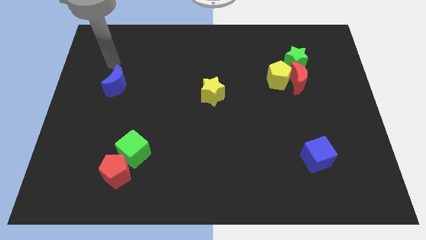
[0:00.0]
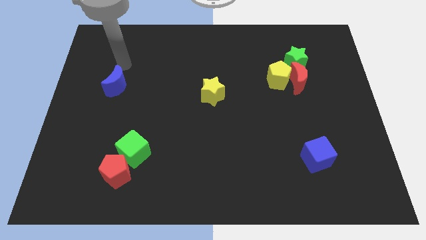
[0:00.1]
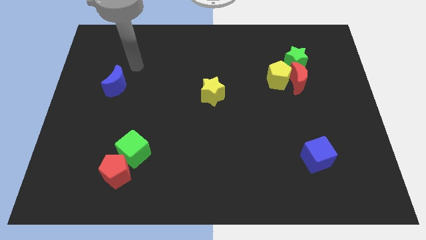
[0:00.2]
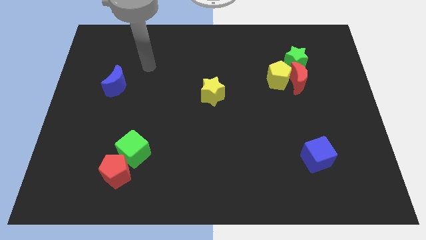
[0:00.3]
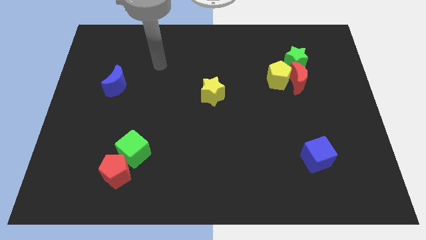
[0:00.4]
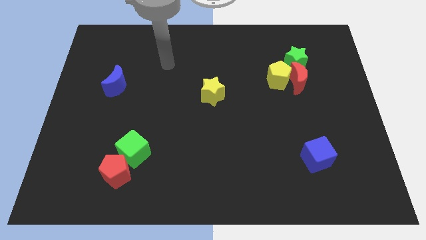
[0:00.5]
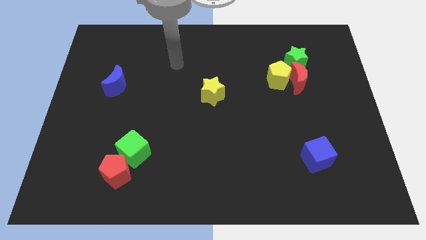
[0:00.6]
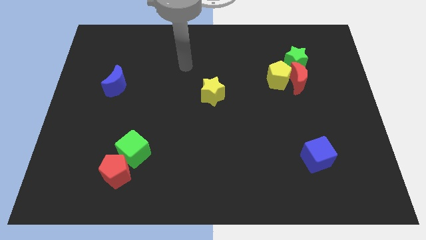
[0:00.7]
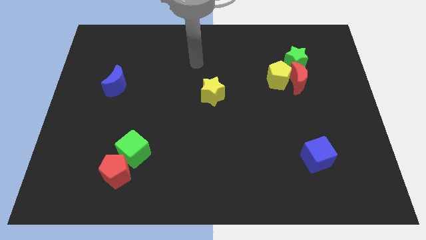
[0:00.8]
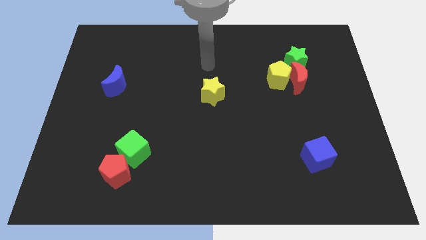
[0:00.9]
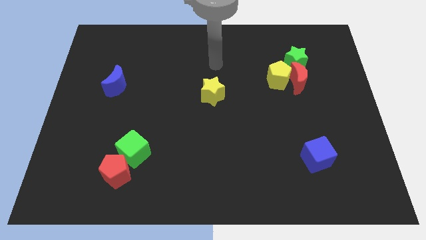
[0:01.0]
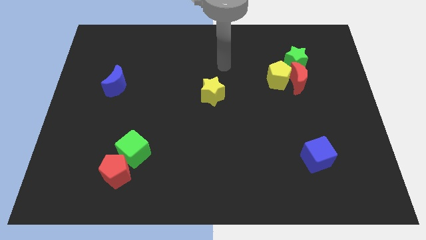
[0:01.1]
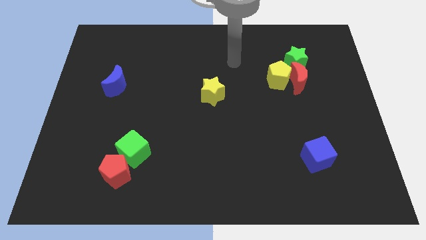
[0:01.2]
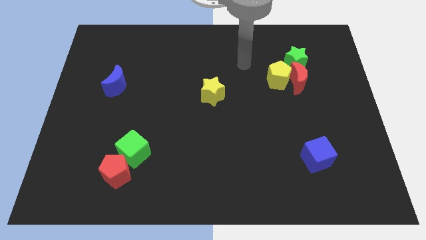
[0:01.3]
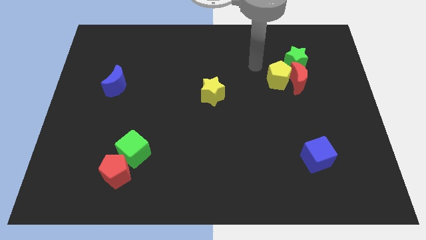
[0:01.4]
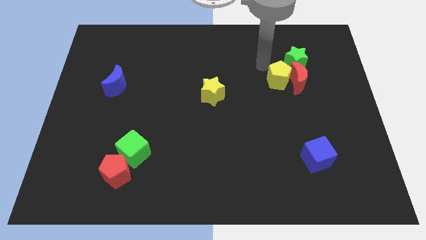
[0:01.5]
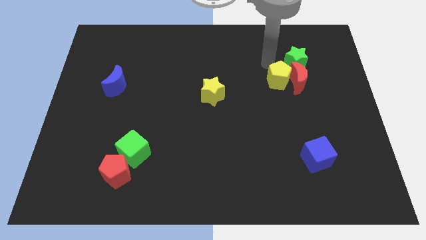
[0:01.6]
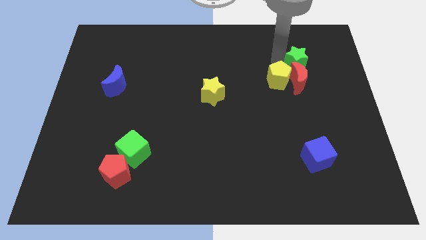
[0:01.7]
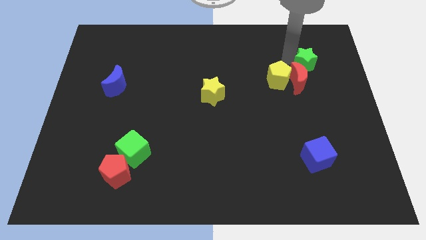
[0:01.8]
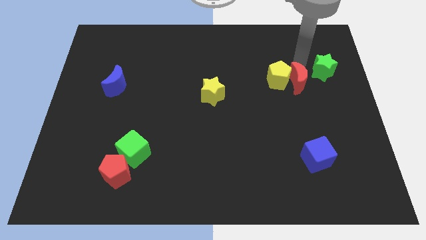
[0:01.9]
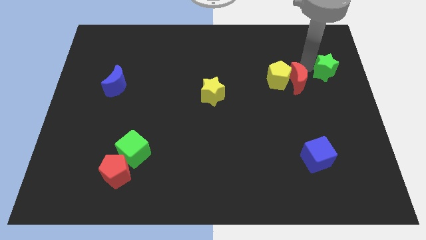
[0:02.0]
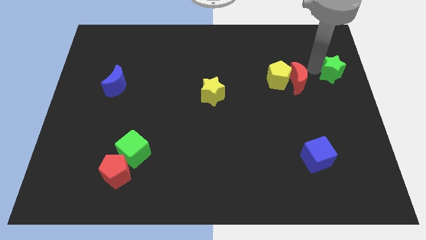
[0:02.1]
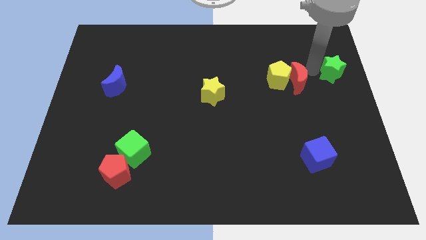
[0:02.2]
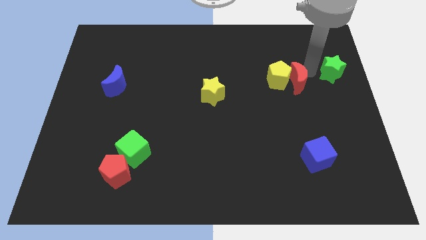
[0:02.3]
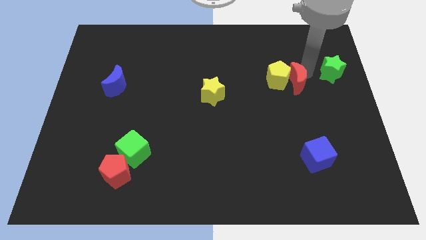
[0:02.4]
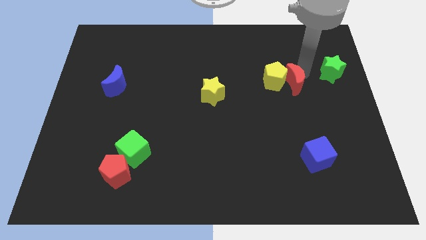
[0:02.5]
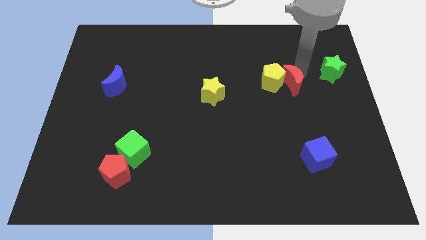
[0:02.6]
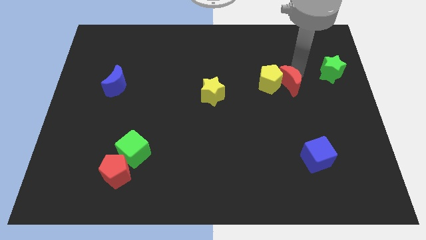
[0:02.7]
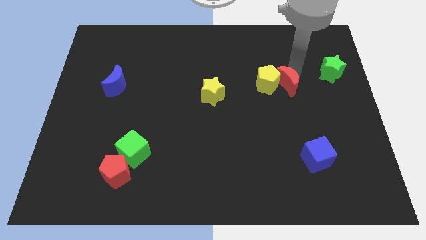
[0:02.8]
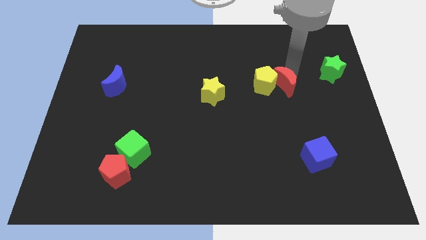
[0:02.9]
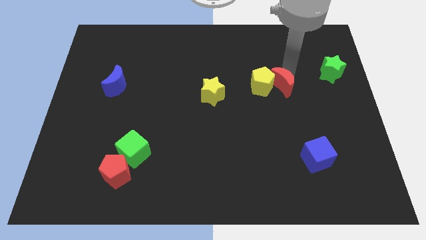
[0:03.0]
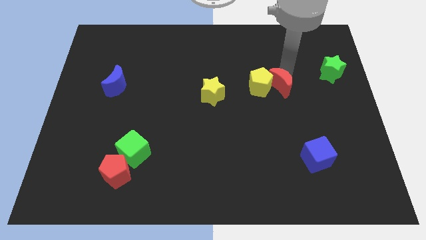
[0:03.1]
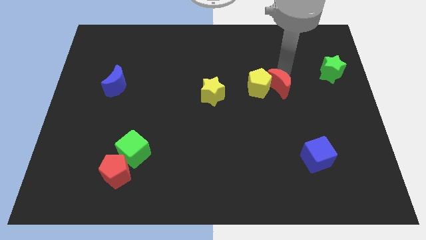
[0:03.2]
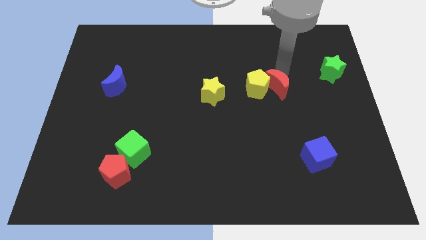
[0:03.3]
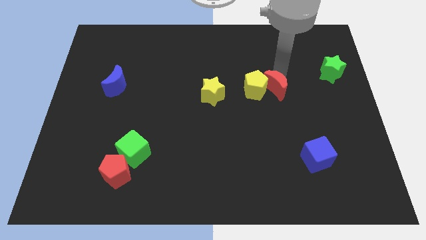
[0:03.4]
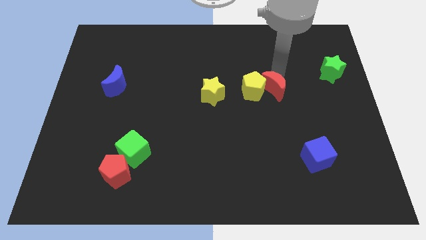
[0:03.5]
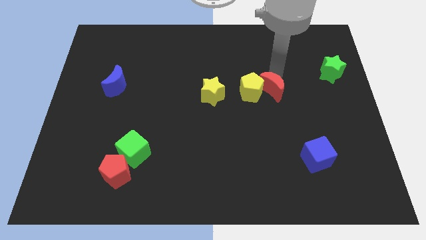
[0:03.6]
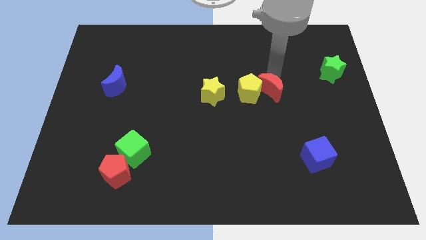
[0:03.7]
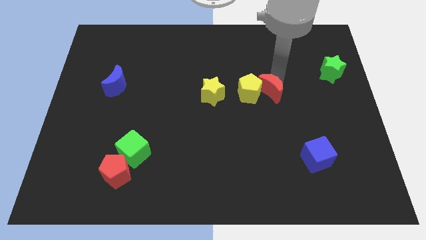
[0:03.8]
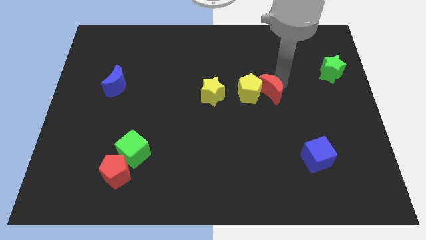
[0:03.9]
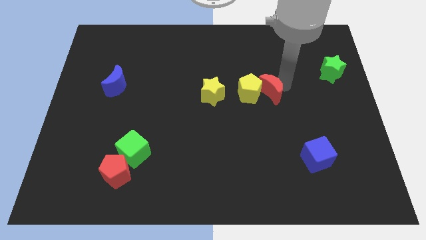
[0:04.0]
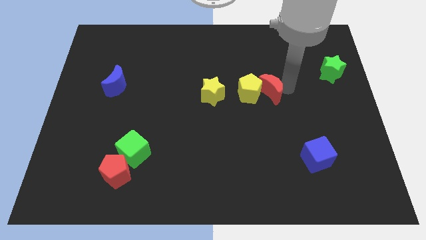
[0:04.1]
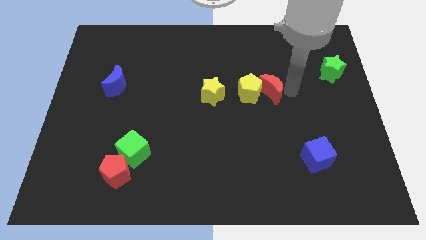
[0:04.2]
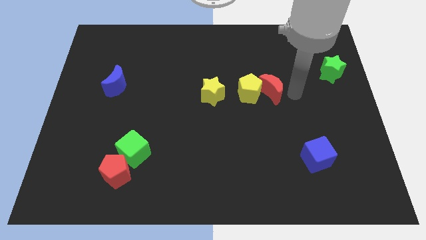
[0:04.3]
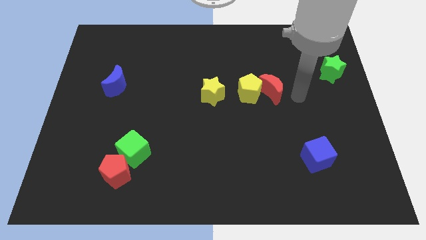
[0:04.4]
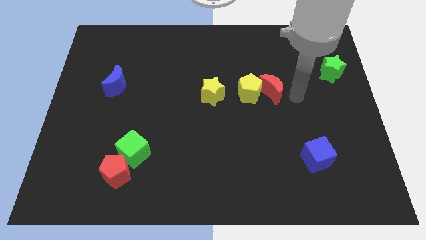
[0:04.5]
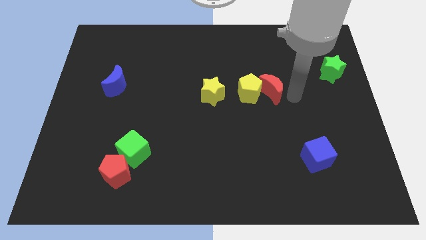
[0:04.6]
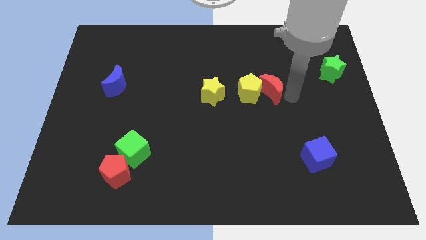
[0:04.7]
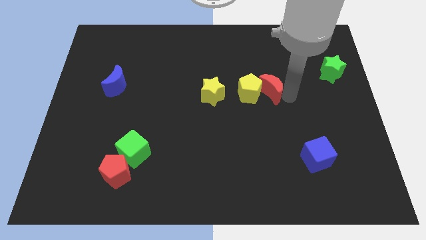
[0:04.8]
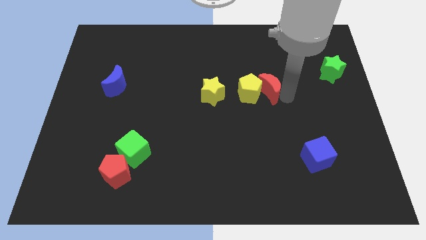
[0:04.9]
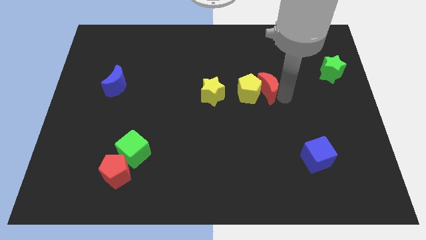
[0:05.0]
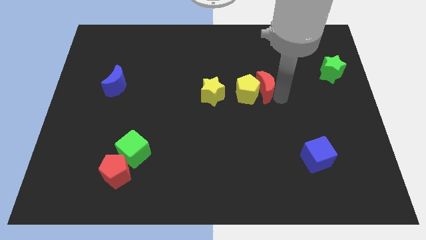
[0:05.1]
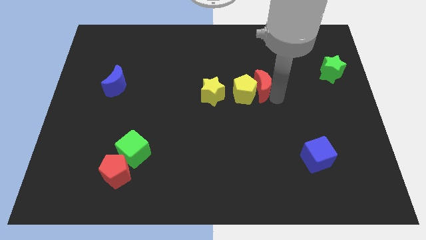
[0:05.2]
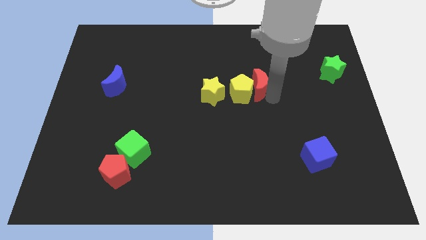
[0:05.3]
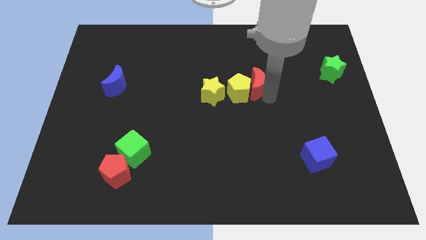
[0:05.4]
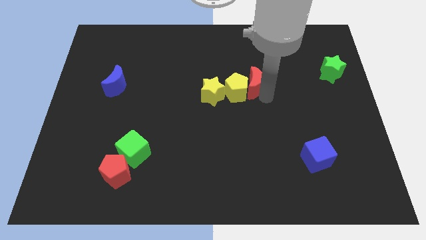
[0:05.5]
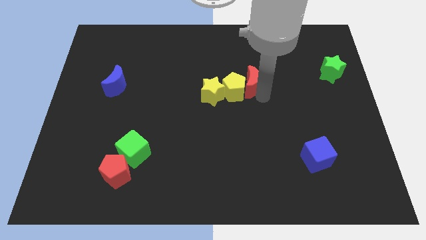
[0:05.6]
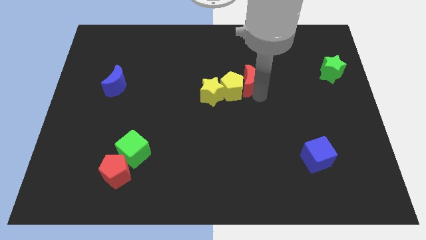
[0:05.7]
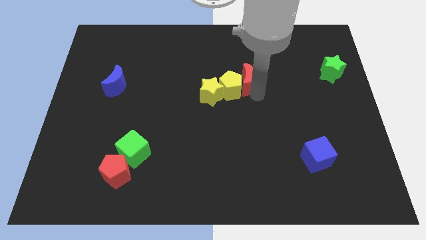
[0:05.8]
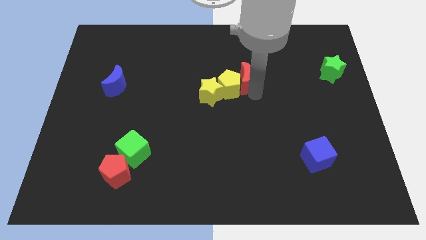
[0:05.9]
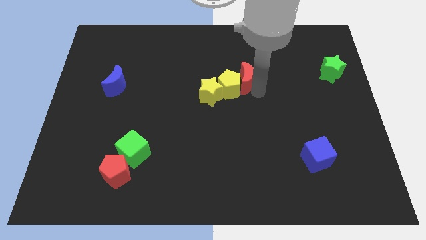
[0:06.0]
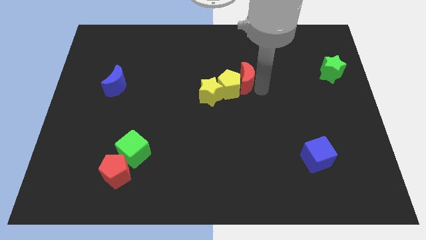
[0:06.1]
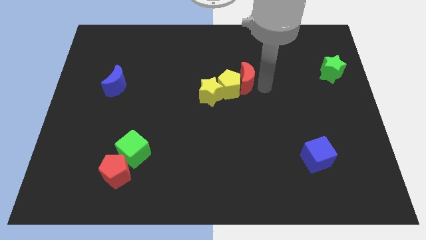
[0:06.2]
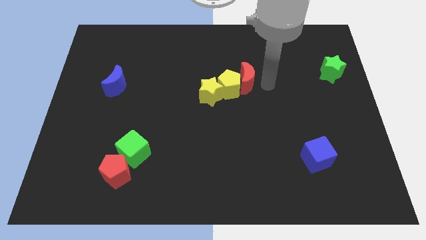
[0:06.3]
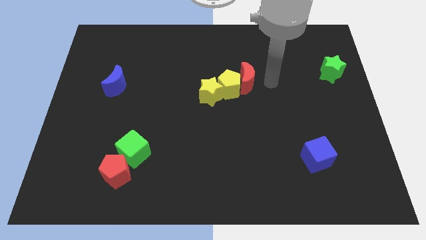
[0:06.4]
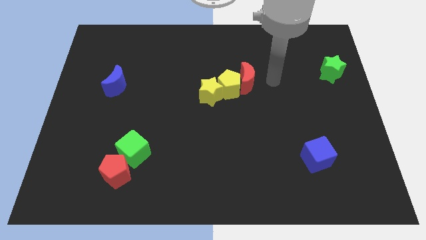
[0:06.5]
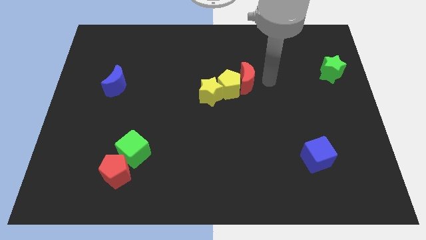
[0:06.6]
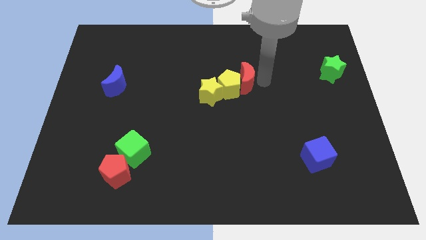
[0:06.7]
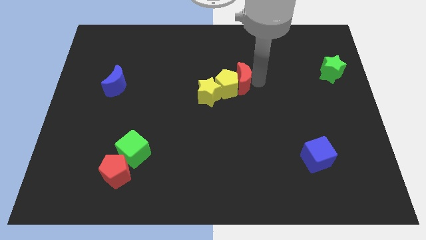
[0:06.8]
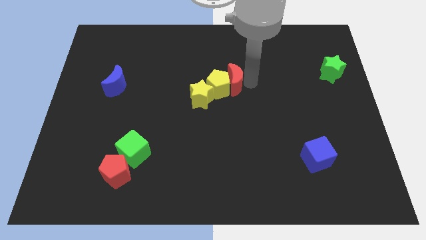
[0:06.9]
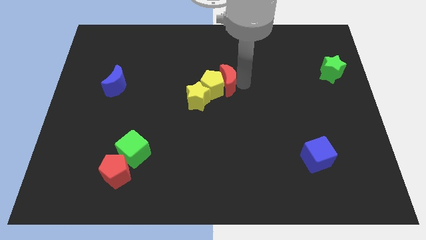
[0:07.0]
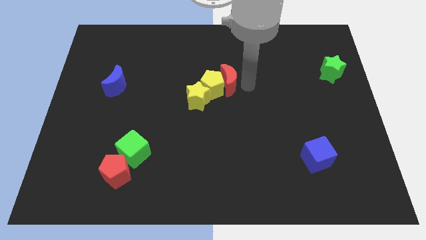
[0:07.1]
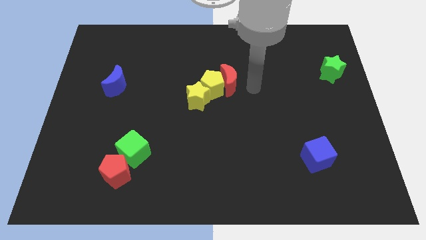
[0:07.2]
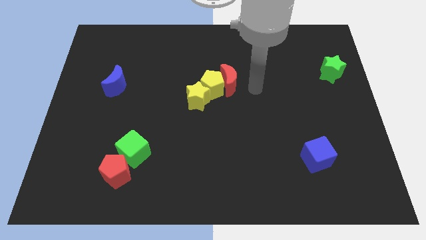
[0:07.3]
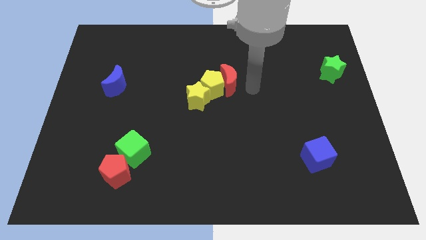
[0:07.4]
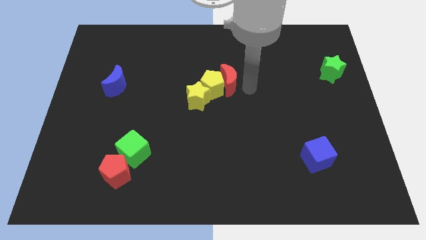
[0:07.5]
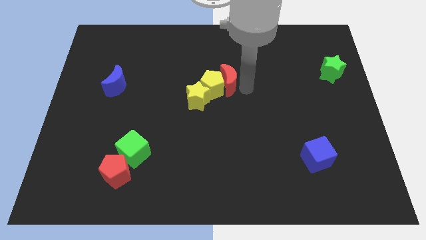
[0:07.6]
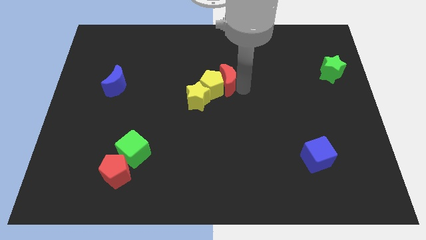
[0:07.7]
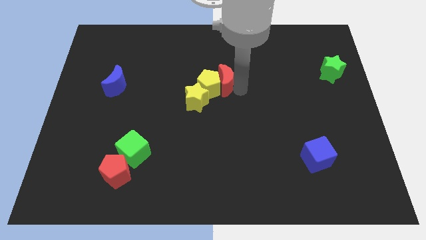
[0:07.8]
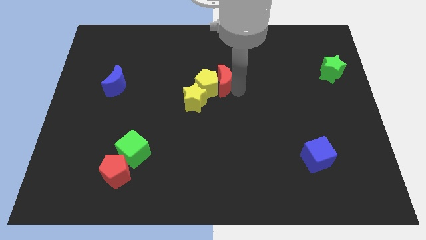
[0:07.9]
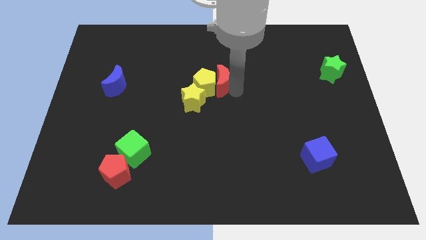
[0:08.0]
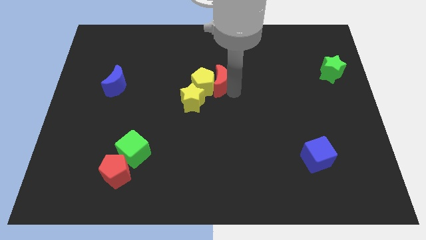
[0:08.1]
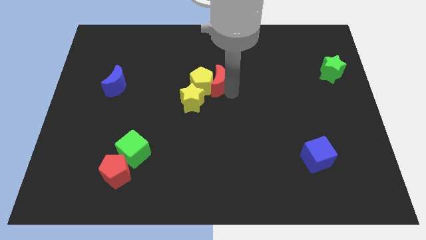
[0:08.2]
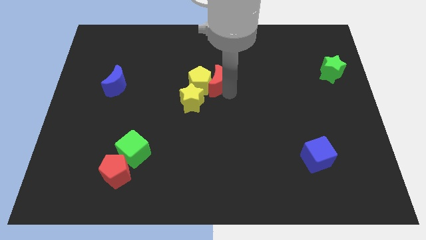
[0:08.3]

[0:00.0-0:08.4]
move the red moon to the left
